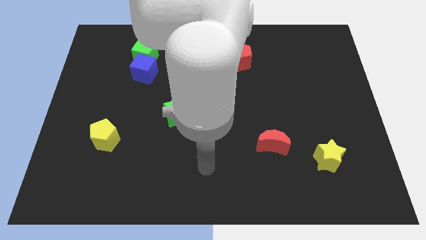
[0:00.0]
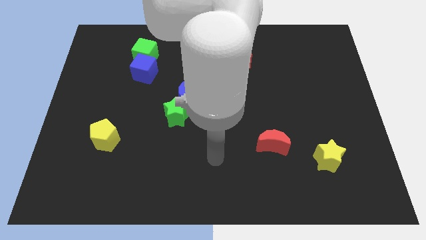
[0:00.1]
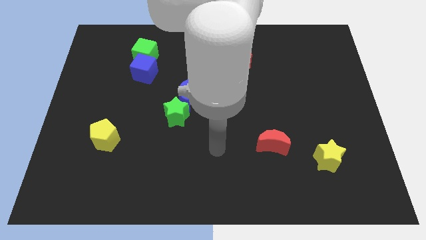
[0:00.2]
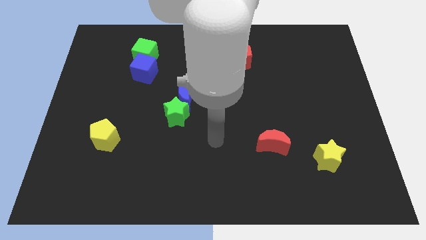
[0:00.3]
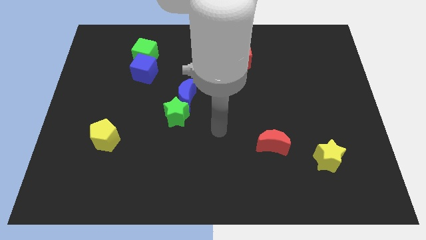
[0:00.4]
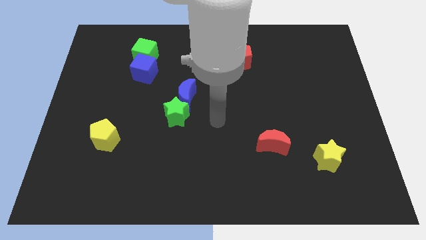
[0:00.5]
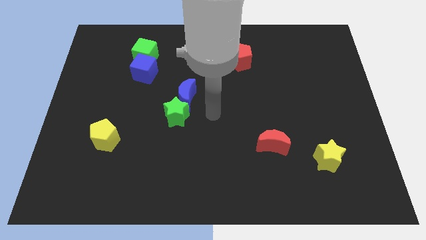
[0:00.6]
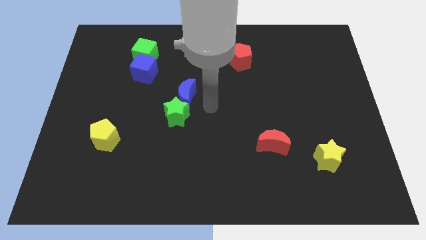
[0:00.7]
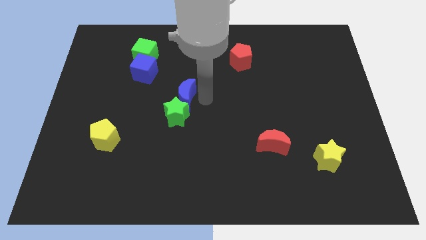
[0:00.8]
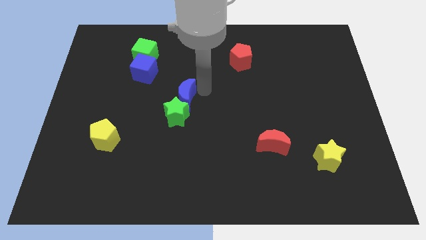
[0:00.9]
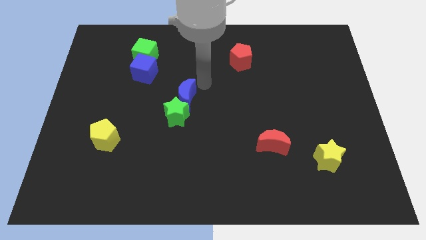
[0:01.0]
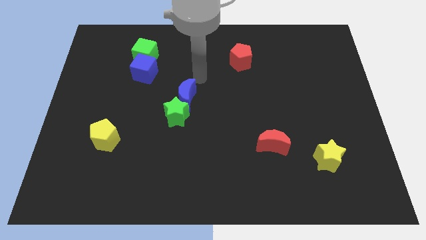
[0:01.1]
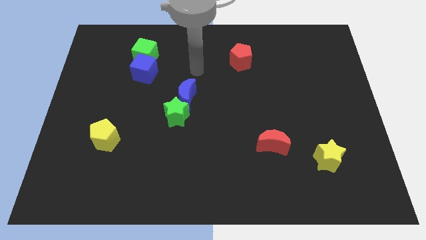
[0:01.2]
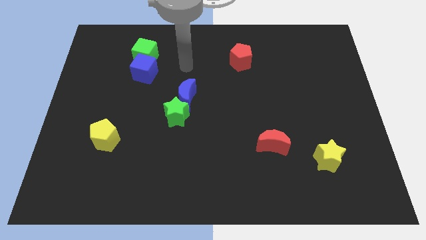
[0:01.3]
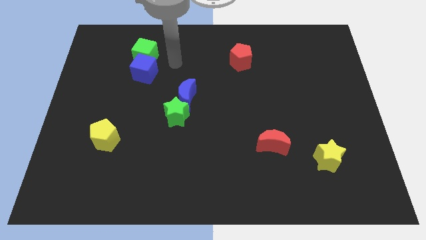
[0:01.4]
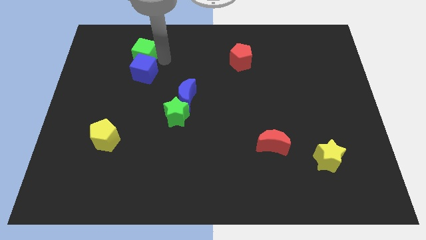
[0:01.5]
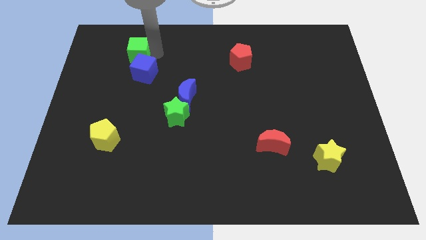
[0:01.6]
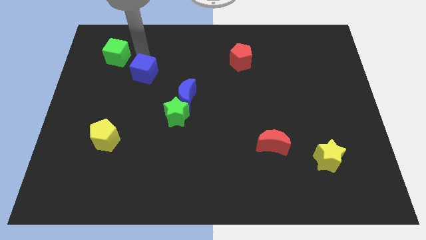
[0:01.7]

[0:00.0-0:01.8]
move the blue cube away from the green cube

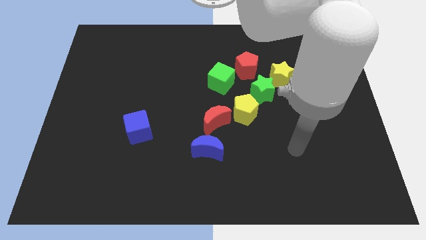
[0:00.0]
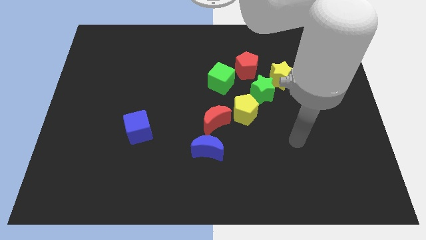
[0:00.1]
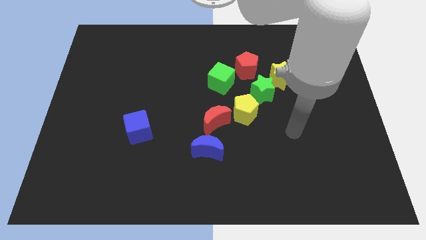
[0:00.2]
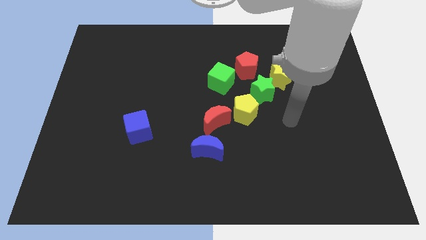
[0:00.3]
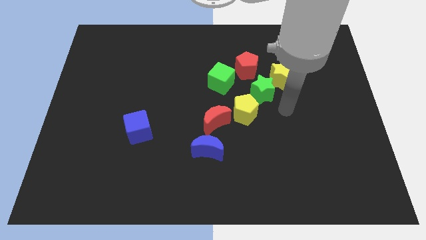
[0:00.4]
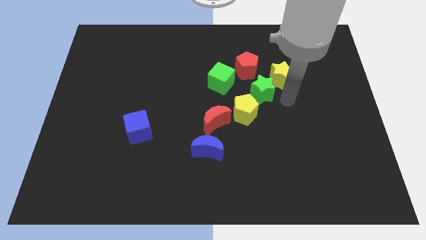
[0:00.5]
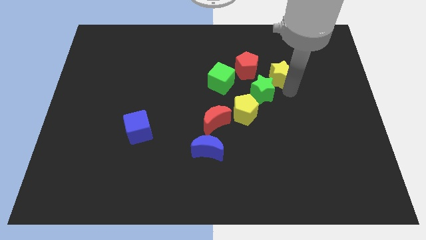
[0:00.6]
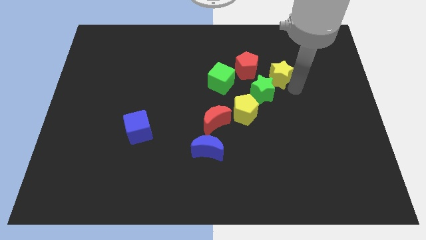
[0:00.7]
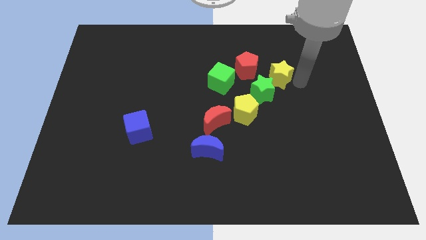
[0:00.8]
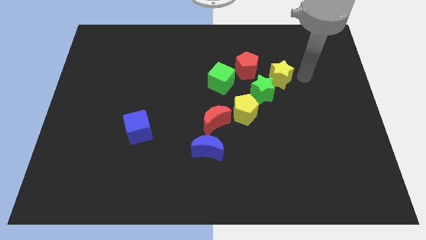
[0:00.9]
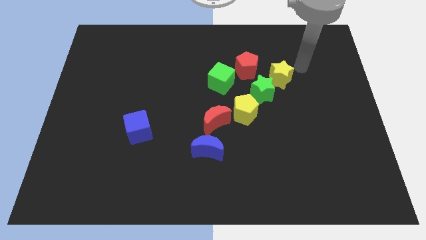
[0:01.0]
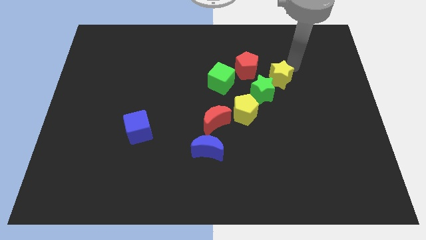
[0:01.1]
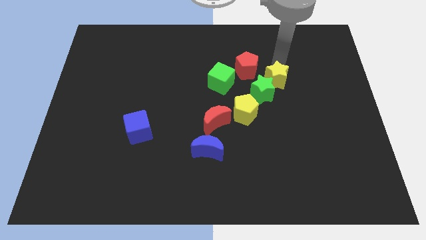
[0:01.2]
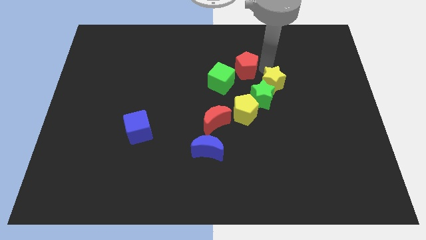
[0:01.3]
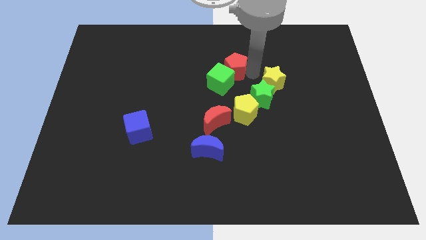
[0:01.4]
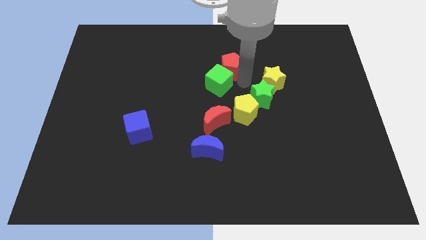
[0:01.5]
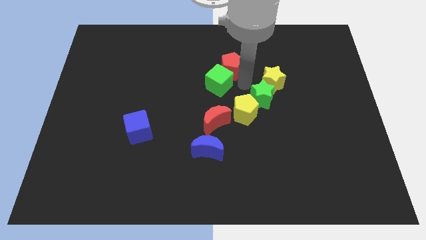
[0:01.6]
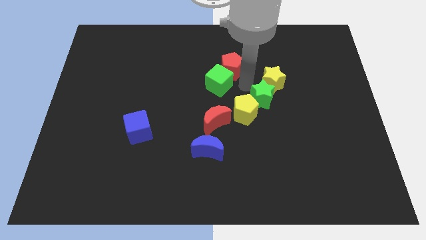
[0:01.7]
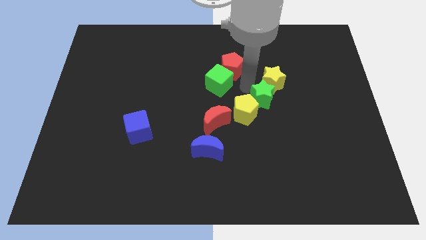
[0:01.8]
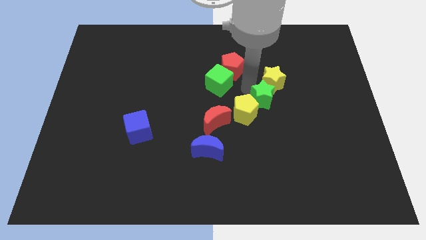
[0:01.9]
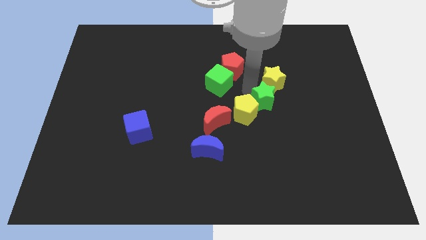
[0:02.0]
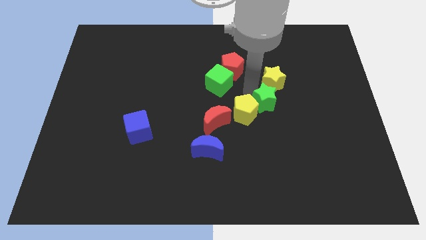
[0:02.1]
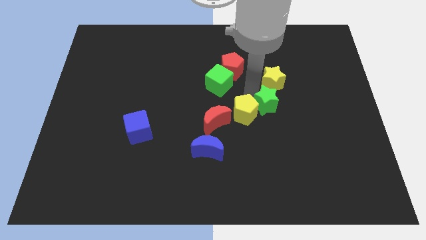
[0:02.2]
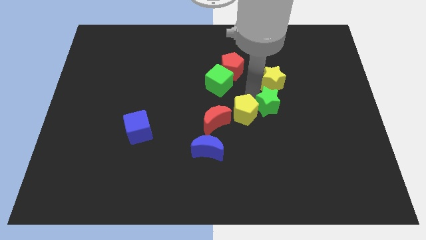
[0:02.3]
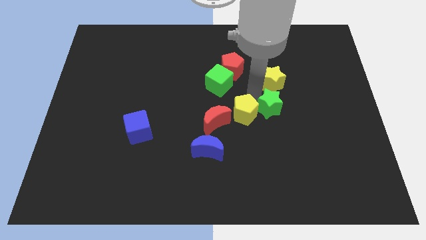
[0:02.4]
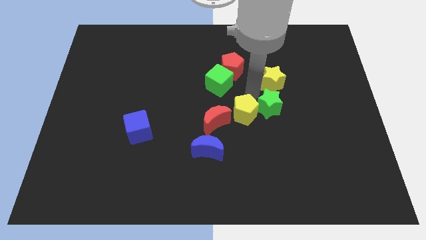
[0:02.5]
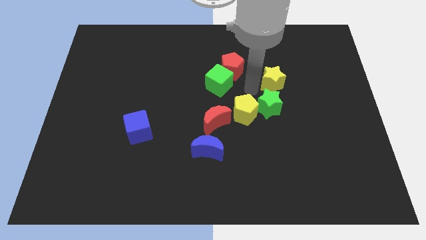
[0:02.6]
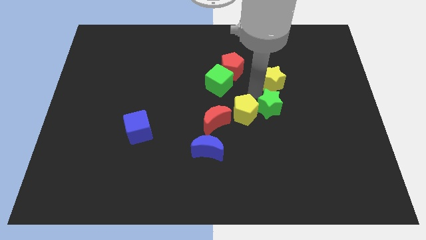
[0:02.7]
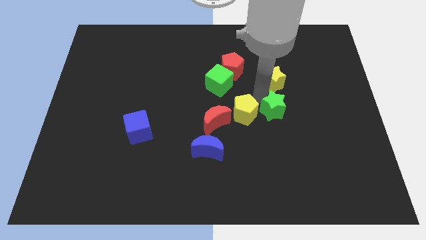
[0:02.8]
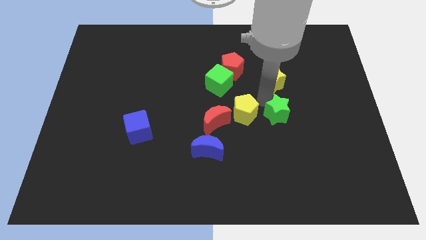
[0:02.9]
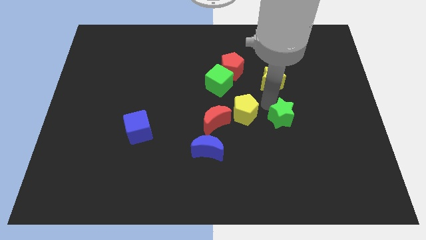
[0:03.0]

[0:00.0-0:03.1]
move the green star away from the yellow star, yellow pentagon, and red pentagon

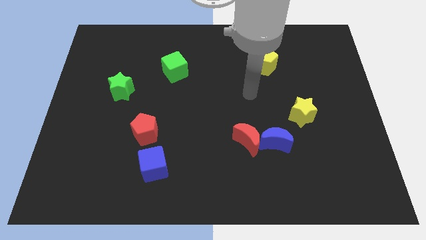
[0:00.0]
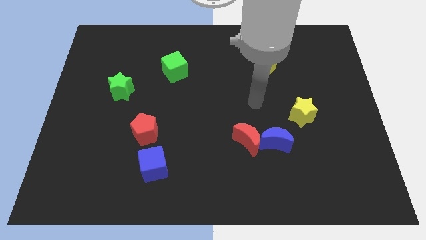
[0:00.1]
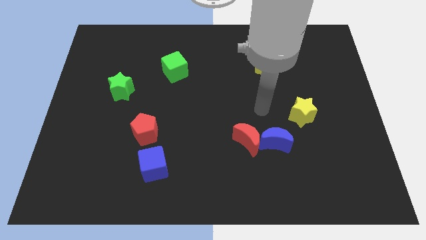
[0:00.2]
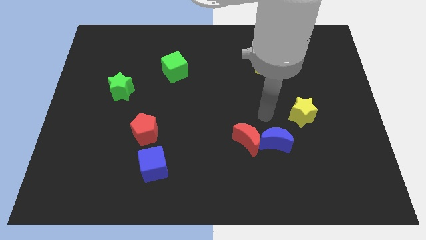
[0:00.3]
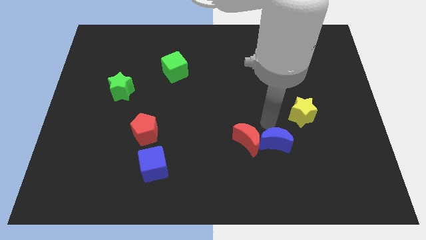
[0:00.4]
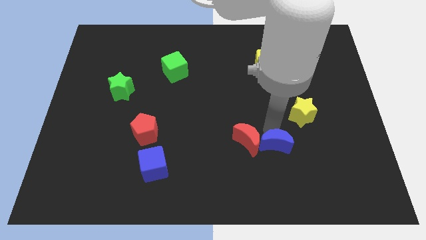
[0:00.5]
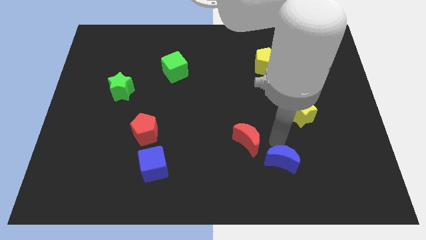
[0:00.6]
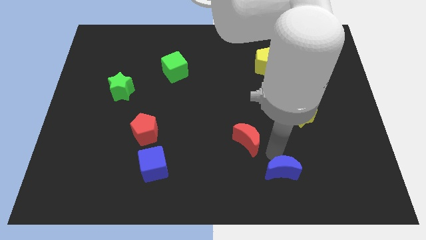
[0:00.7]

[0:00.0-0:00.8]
move the red moon away from the blue moon

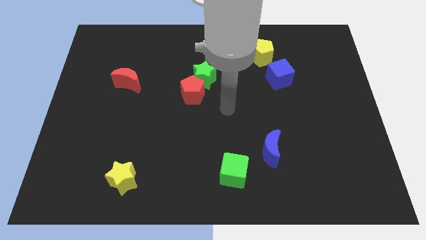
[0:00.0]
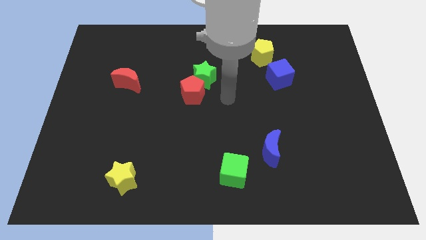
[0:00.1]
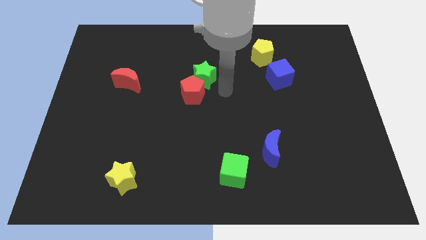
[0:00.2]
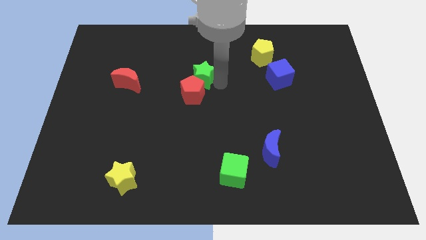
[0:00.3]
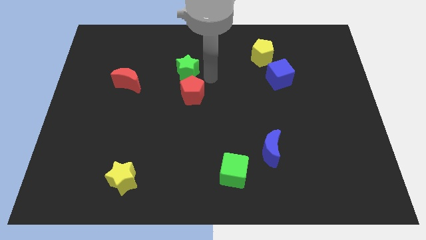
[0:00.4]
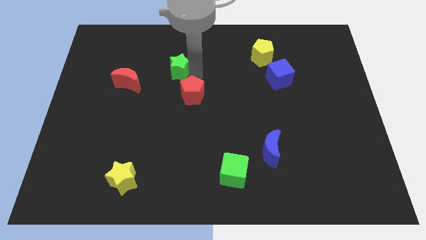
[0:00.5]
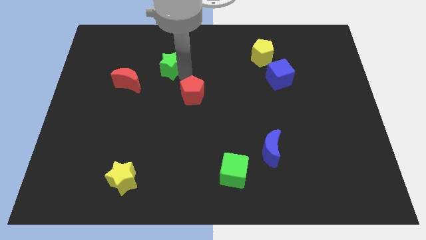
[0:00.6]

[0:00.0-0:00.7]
separate the red pentagon from the green star

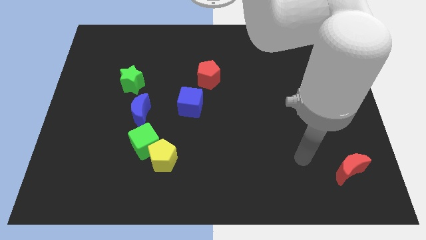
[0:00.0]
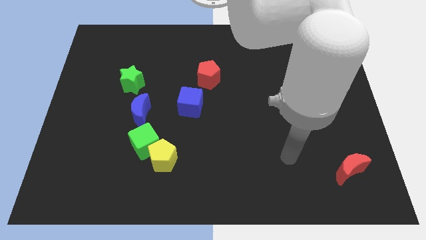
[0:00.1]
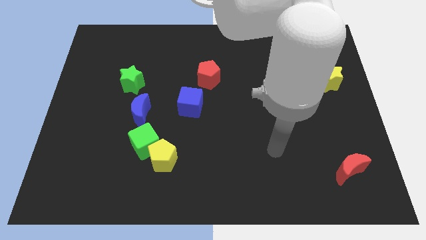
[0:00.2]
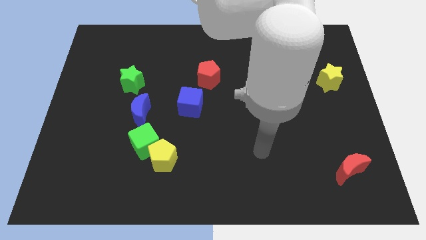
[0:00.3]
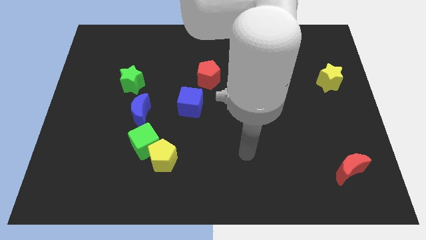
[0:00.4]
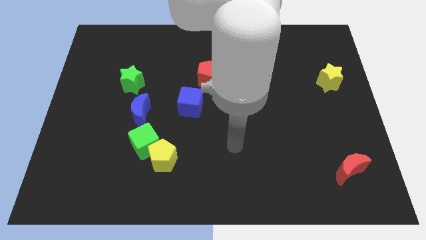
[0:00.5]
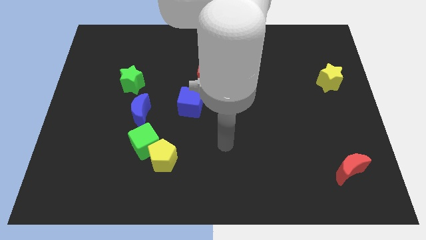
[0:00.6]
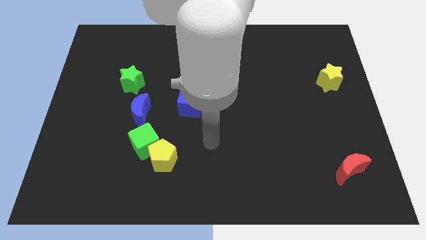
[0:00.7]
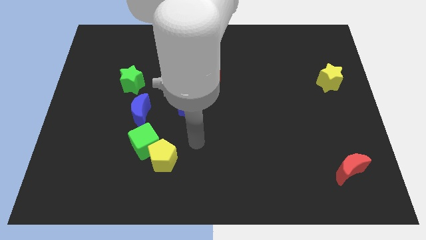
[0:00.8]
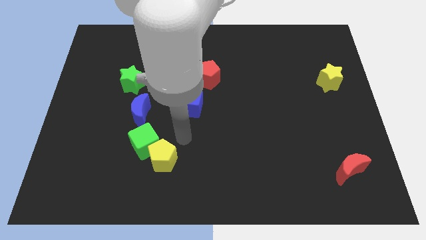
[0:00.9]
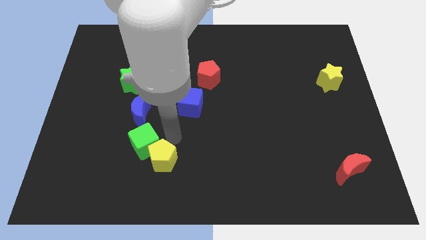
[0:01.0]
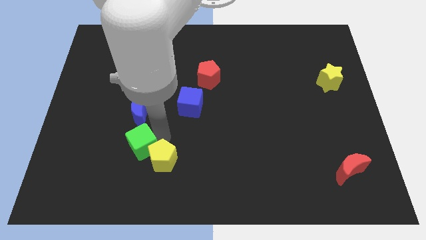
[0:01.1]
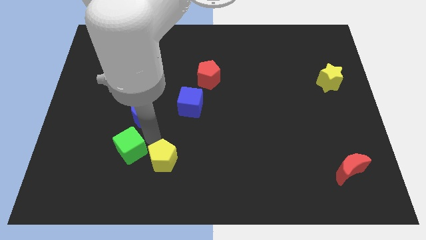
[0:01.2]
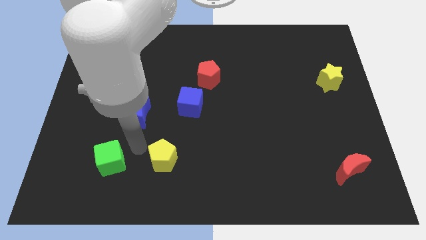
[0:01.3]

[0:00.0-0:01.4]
move the yellow pentagon away from the green cube

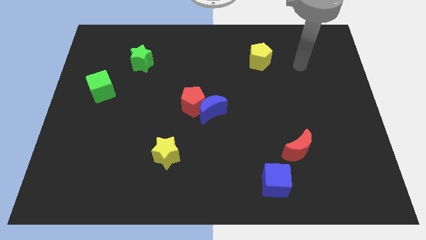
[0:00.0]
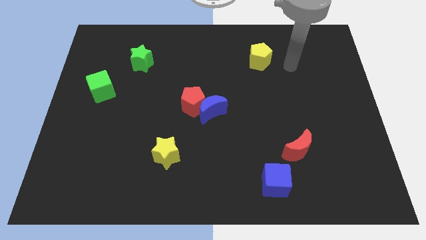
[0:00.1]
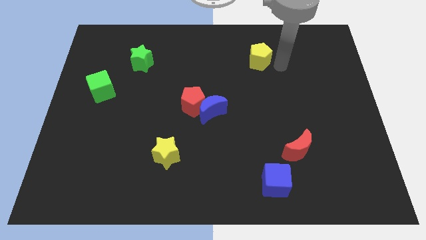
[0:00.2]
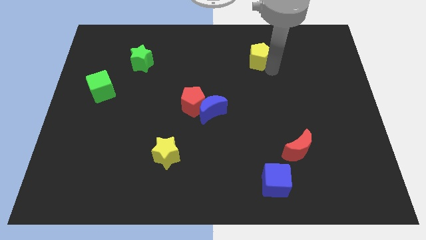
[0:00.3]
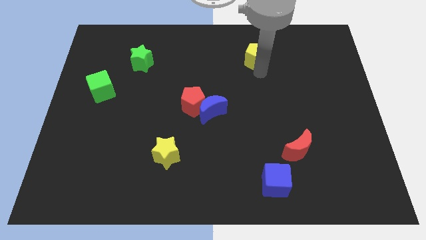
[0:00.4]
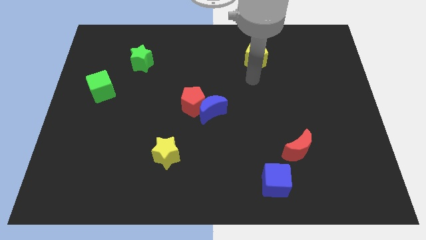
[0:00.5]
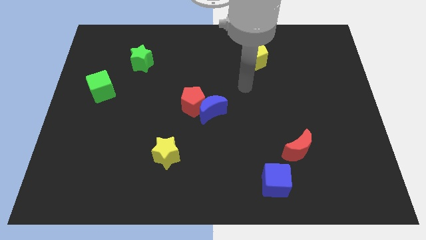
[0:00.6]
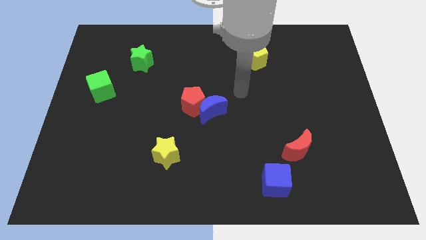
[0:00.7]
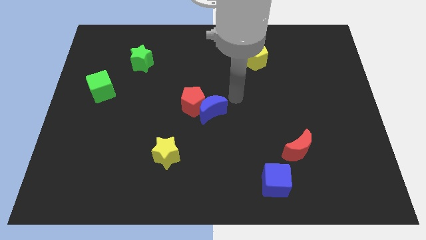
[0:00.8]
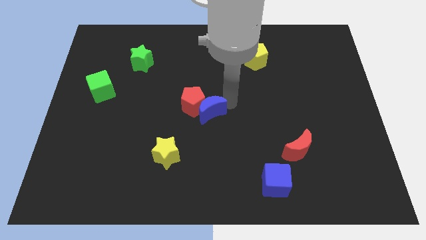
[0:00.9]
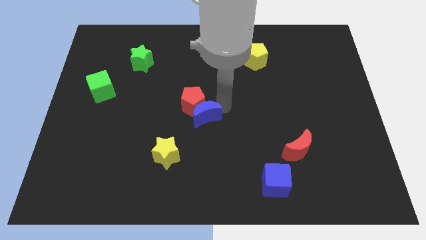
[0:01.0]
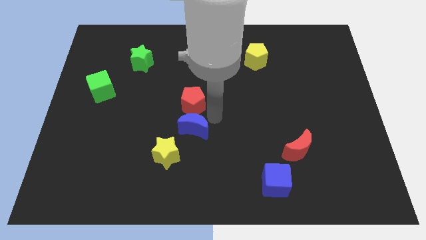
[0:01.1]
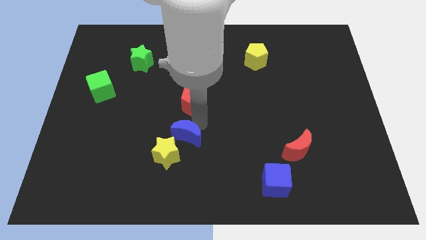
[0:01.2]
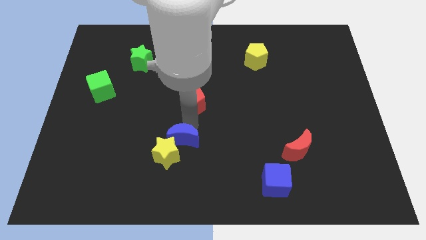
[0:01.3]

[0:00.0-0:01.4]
move the red pentagon away from the blue moon
